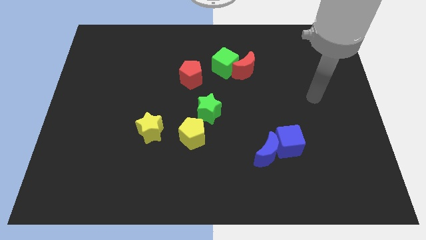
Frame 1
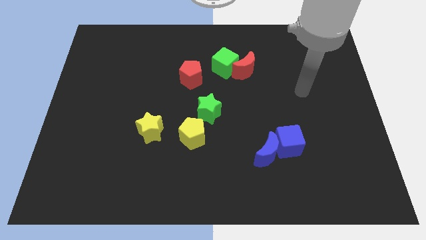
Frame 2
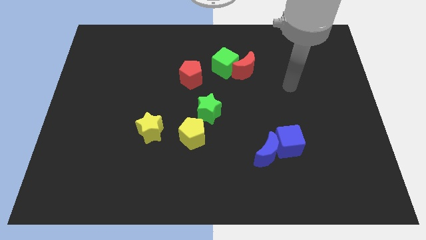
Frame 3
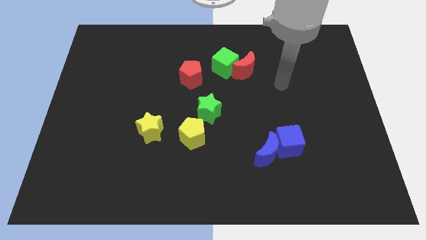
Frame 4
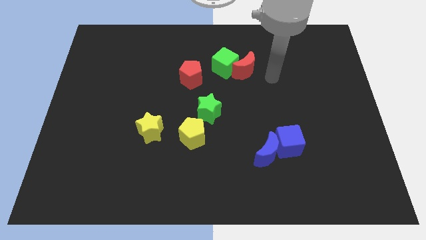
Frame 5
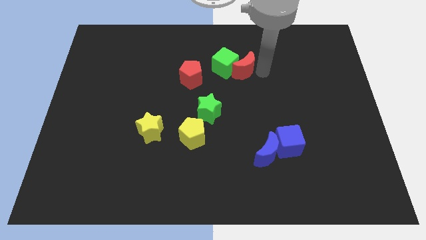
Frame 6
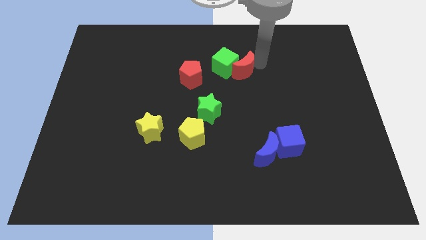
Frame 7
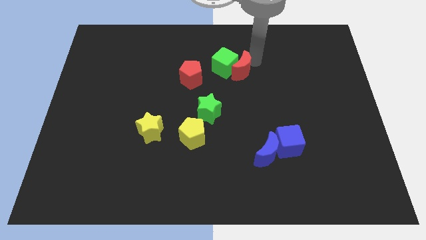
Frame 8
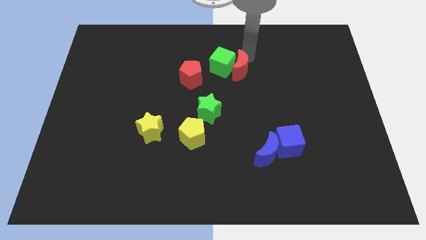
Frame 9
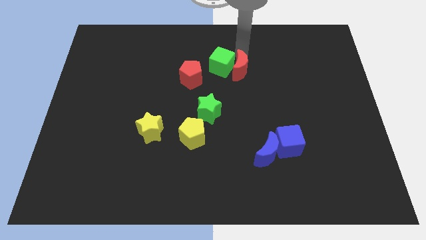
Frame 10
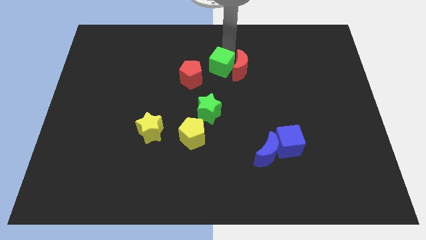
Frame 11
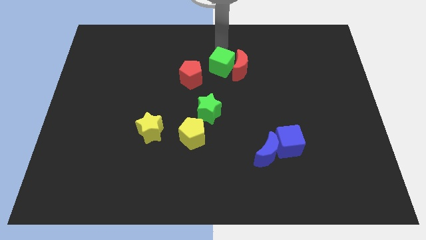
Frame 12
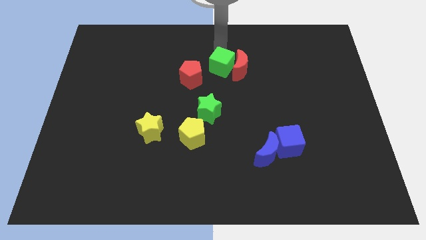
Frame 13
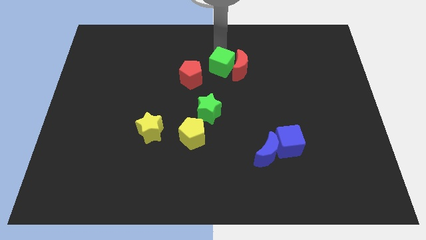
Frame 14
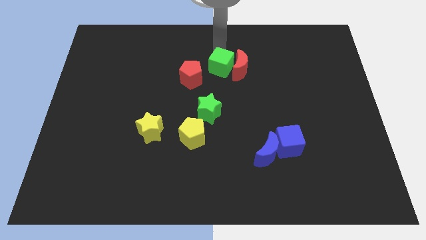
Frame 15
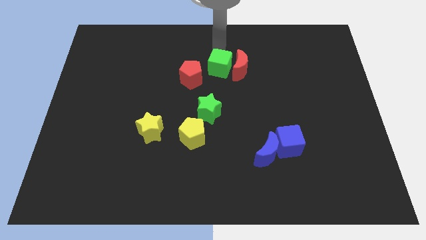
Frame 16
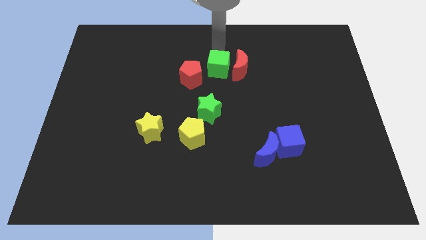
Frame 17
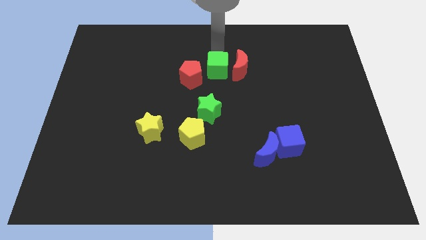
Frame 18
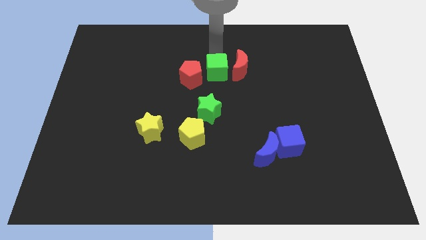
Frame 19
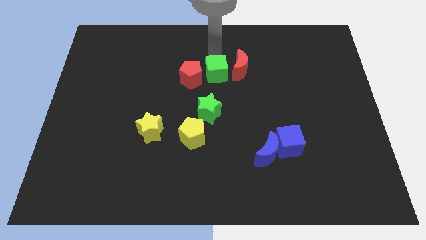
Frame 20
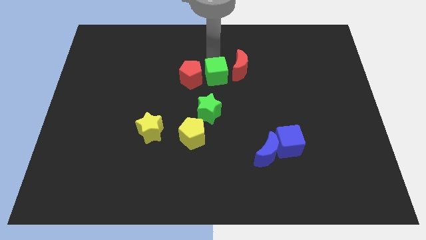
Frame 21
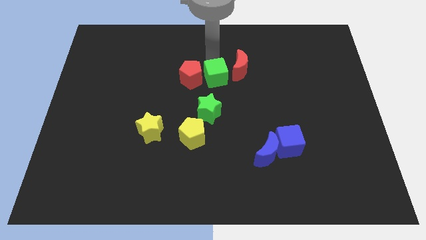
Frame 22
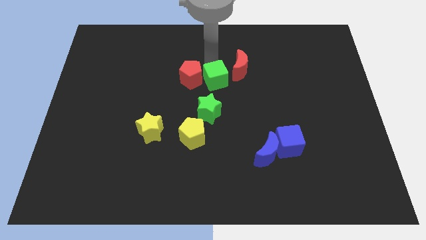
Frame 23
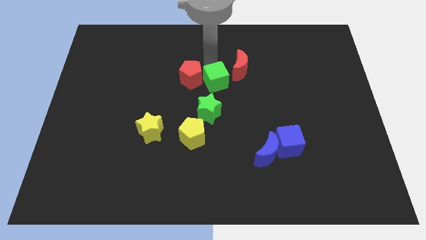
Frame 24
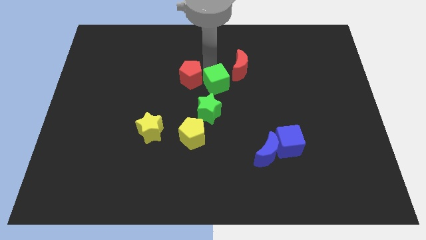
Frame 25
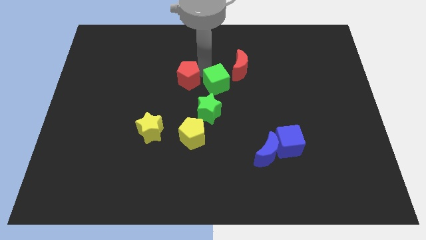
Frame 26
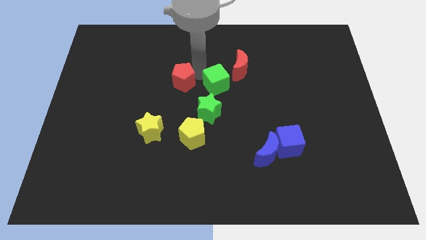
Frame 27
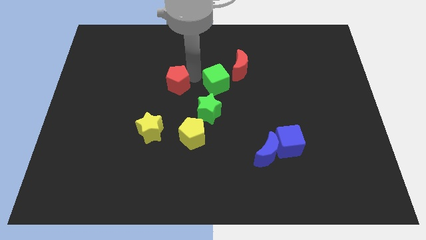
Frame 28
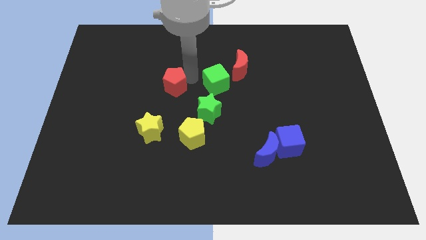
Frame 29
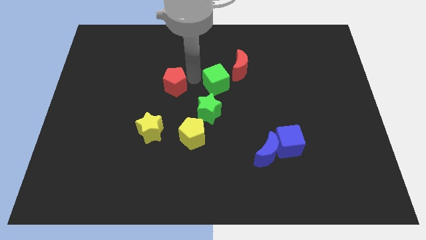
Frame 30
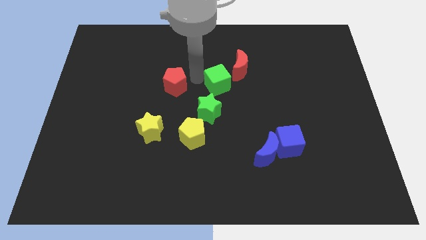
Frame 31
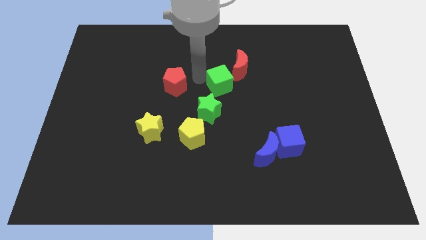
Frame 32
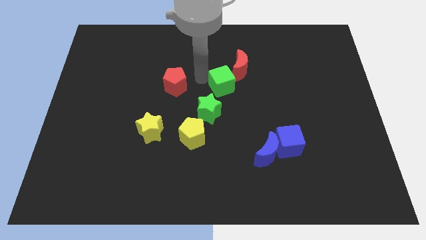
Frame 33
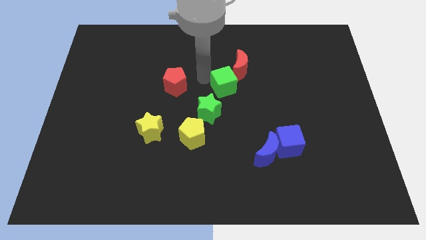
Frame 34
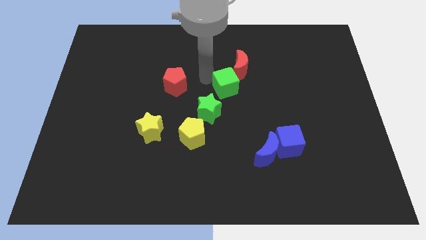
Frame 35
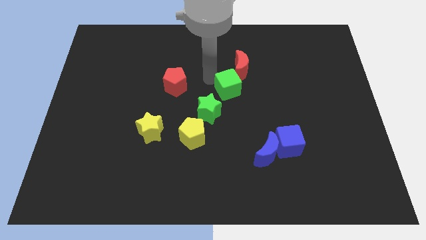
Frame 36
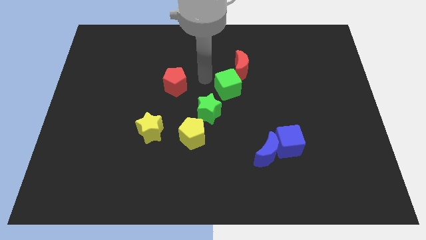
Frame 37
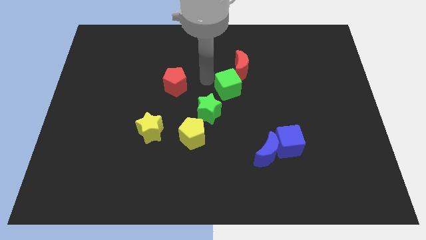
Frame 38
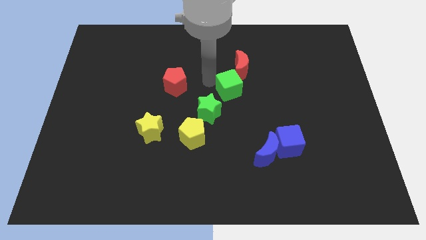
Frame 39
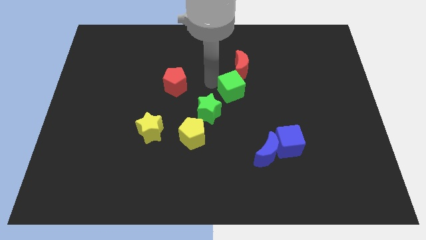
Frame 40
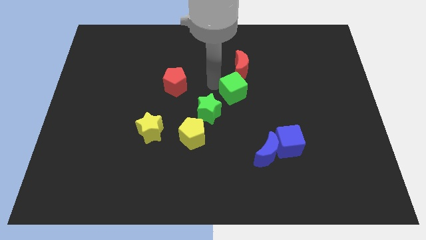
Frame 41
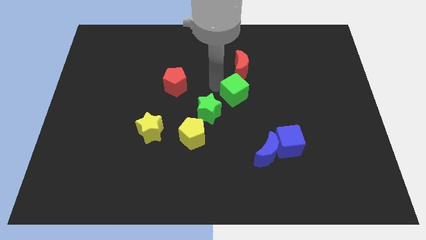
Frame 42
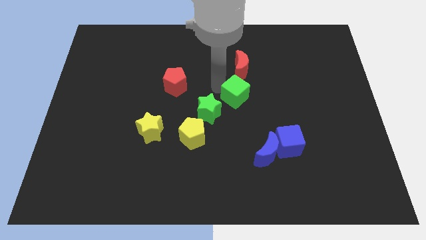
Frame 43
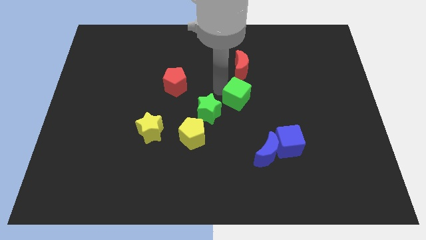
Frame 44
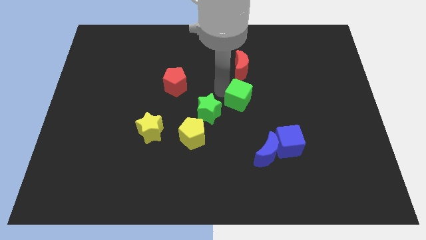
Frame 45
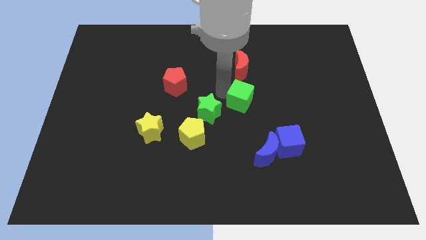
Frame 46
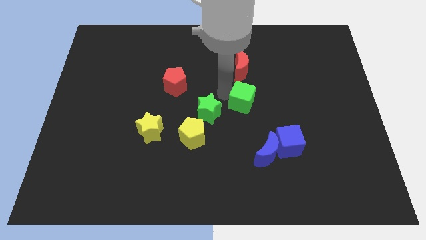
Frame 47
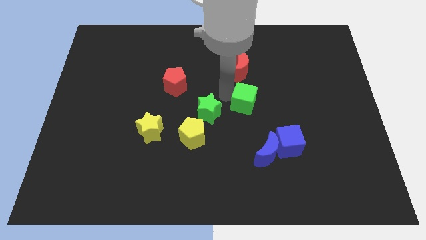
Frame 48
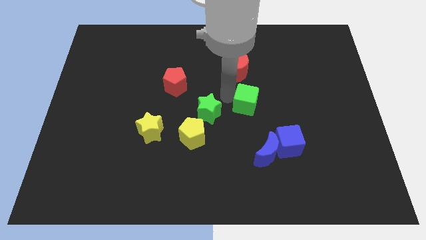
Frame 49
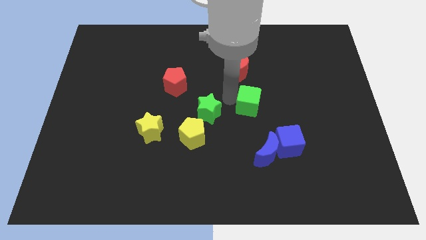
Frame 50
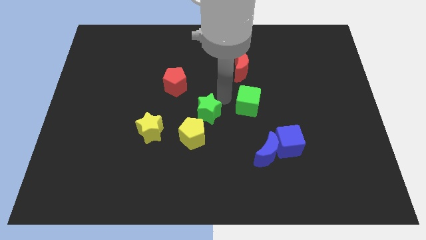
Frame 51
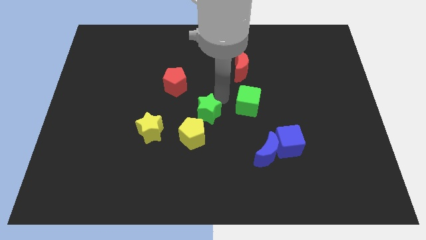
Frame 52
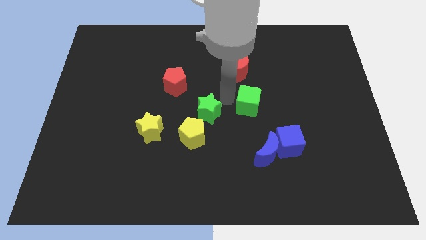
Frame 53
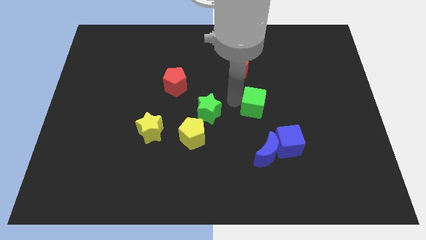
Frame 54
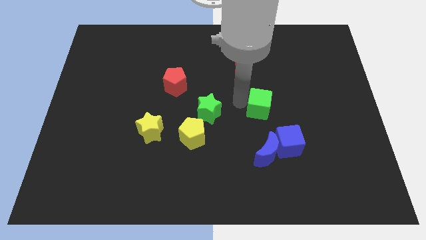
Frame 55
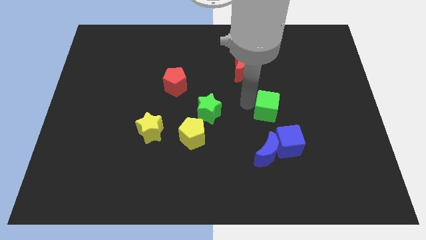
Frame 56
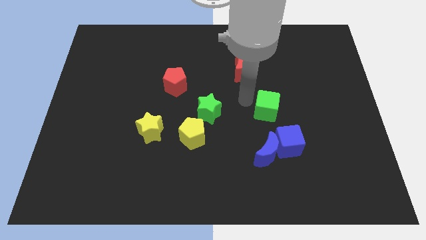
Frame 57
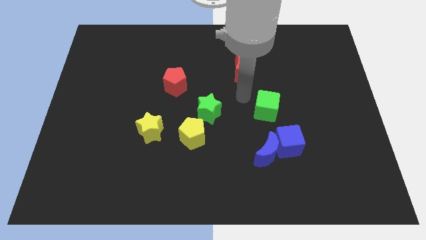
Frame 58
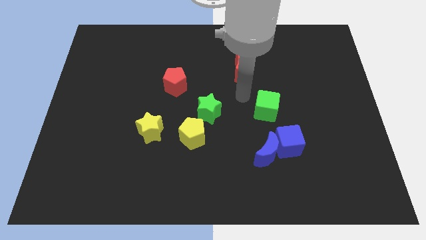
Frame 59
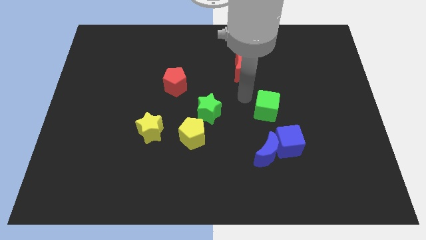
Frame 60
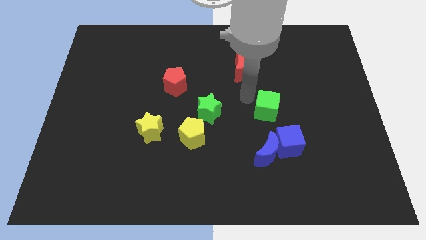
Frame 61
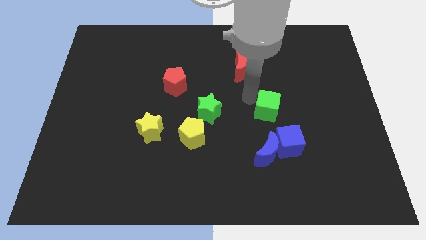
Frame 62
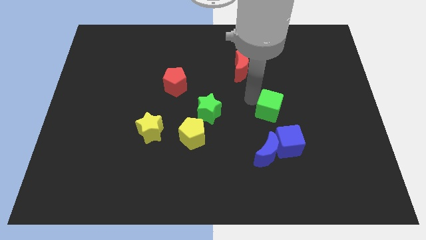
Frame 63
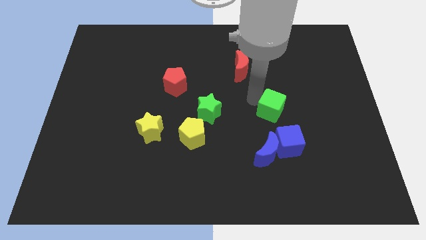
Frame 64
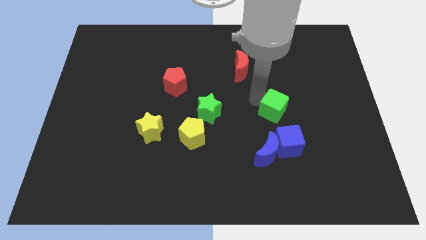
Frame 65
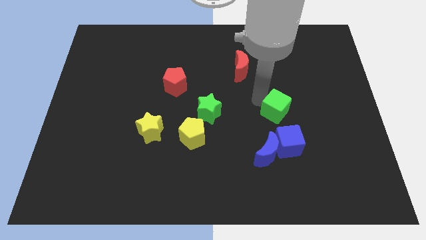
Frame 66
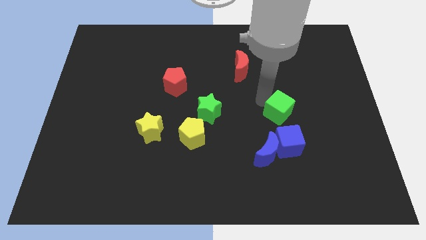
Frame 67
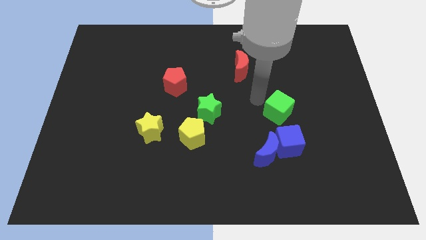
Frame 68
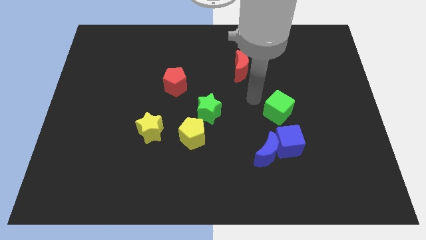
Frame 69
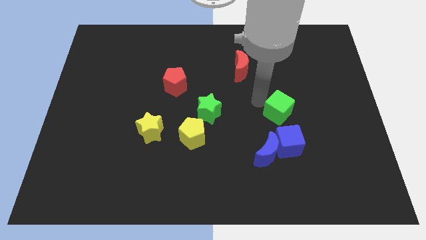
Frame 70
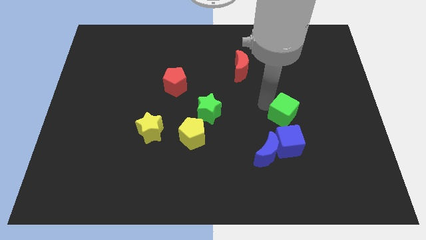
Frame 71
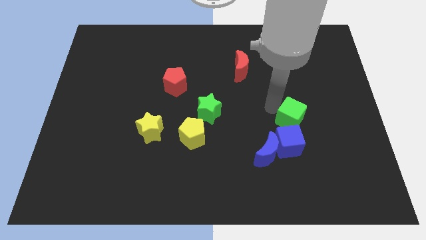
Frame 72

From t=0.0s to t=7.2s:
put the green cube to the top right side of the blue cube

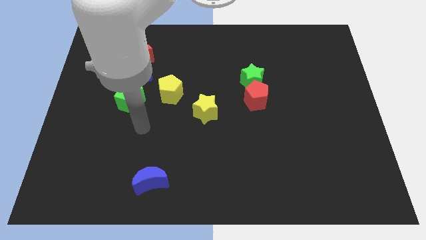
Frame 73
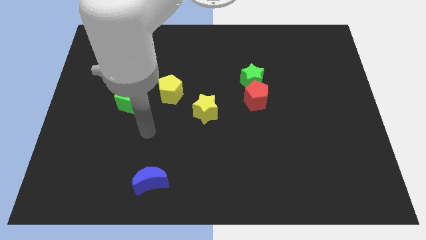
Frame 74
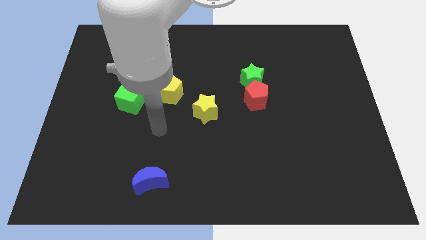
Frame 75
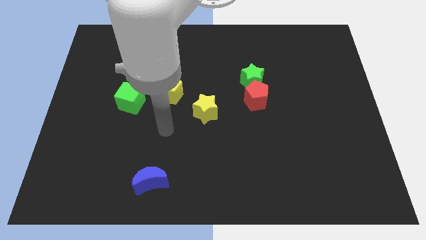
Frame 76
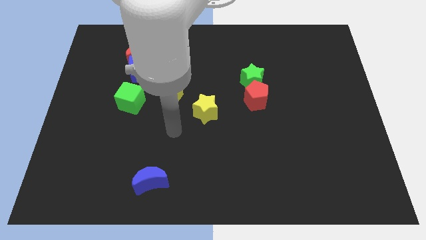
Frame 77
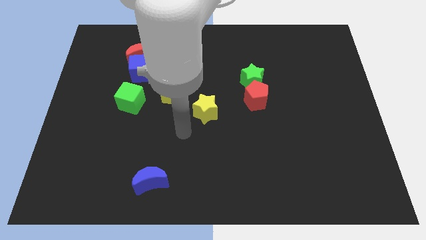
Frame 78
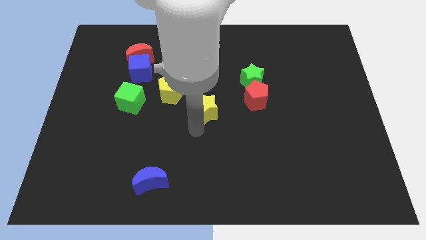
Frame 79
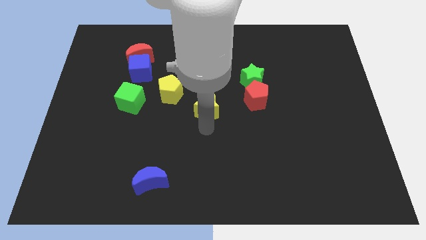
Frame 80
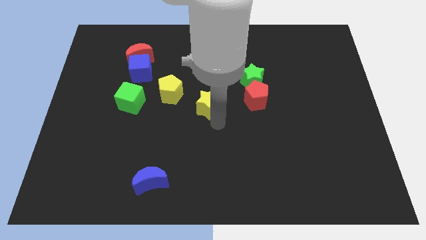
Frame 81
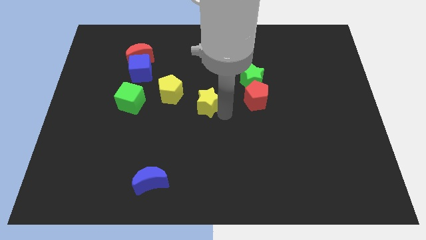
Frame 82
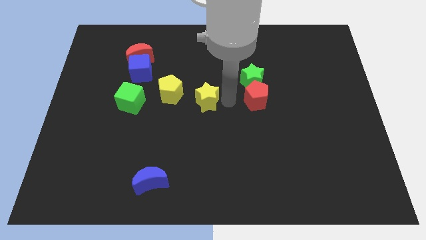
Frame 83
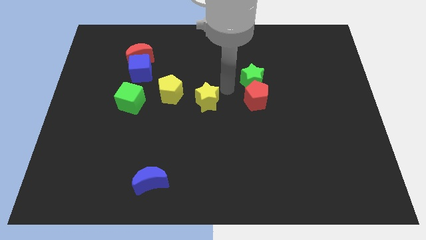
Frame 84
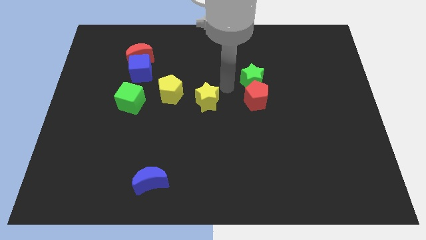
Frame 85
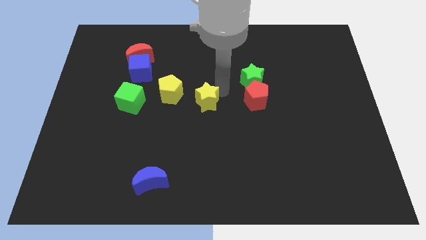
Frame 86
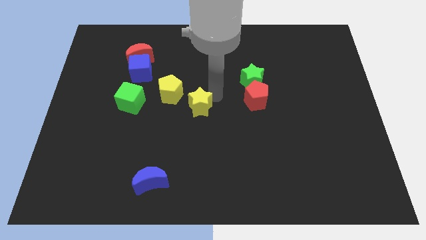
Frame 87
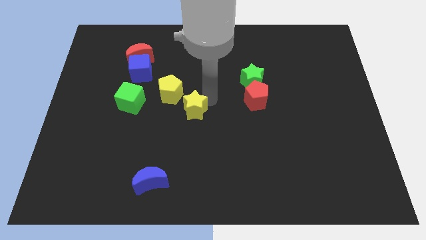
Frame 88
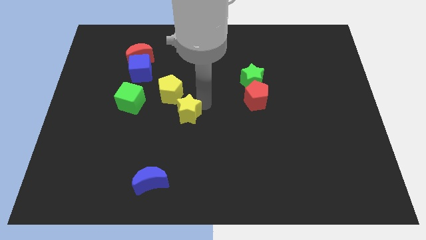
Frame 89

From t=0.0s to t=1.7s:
push the yellow star below the yellow pentagon
